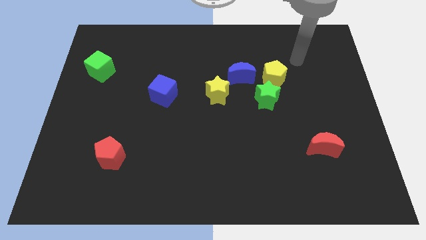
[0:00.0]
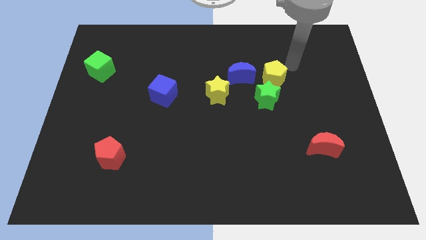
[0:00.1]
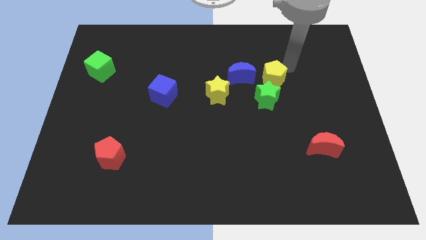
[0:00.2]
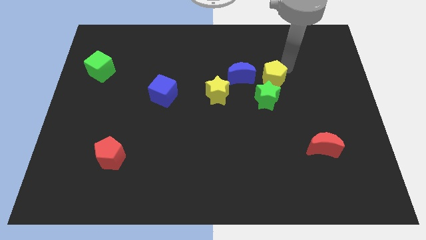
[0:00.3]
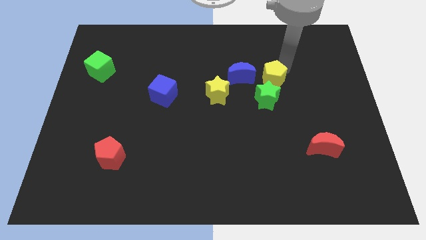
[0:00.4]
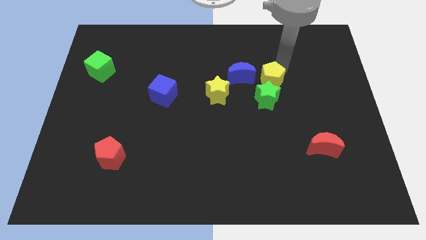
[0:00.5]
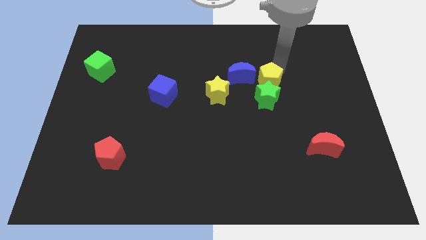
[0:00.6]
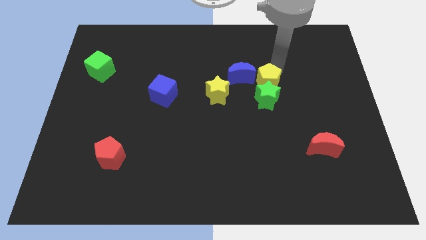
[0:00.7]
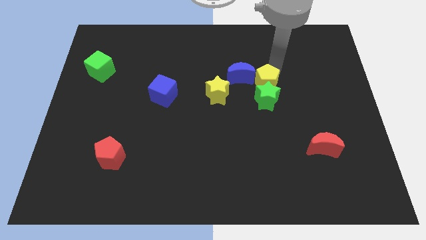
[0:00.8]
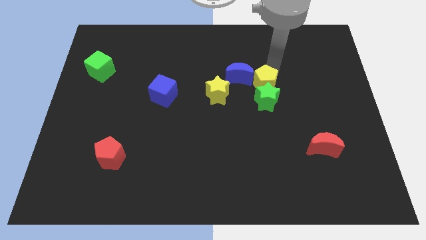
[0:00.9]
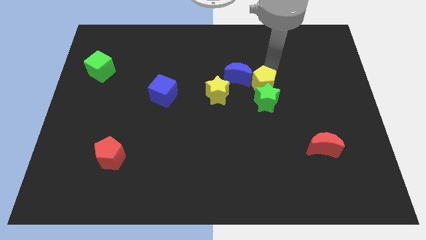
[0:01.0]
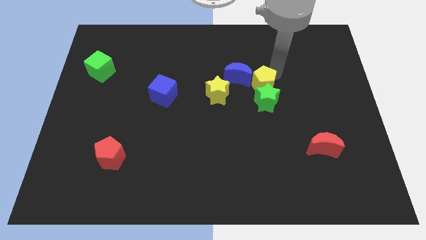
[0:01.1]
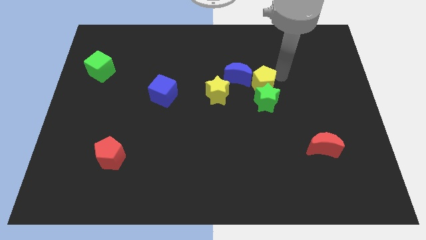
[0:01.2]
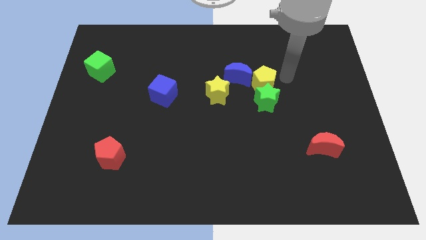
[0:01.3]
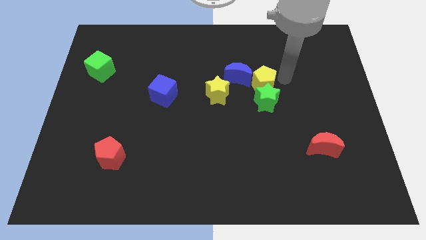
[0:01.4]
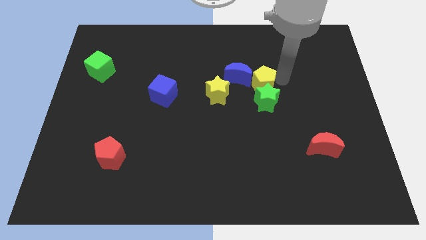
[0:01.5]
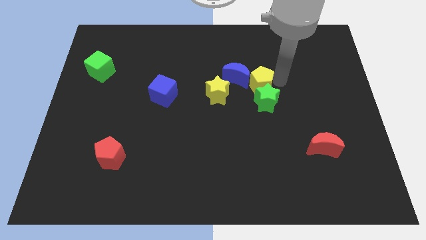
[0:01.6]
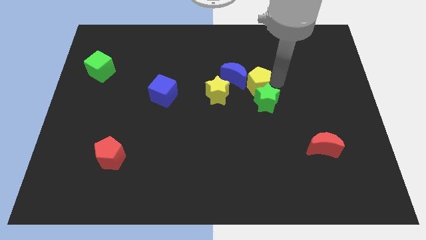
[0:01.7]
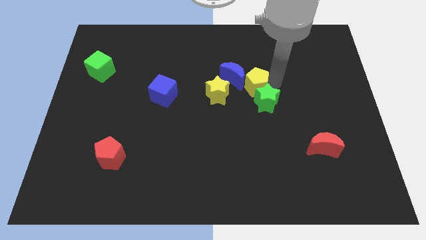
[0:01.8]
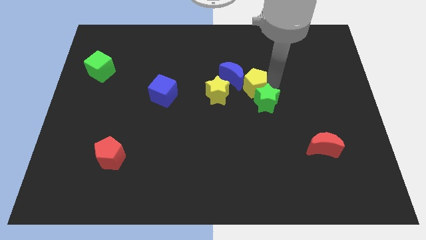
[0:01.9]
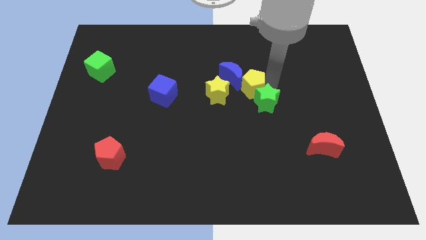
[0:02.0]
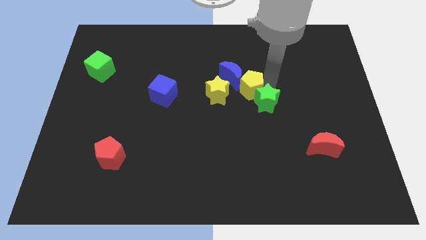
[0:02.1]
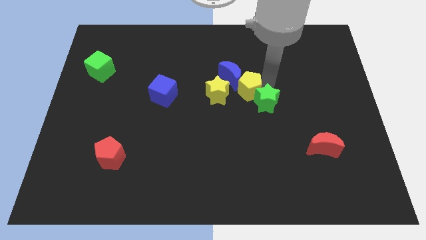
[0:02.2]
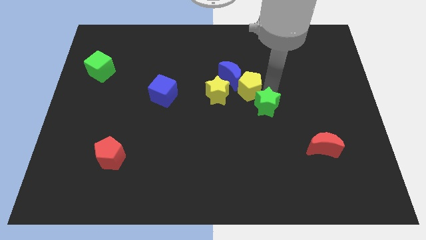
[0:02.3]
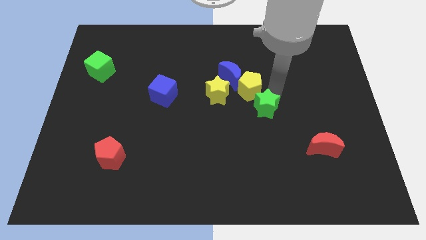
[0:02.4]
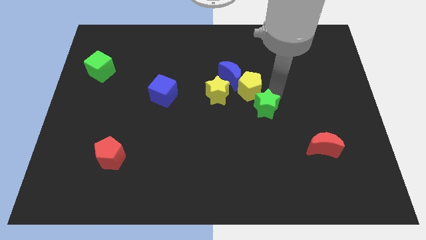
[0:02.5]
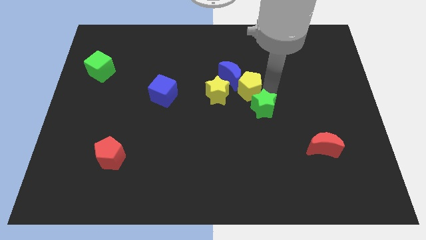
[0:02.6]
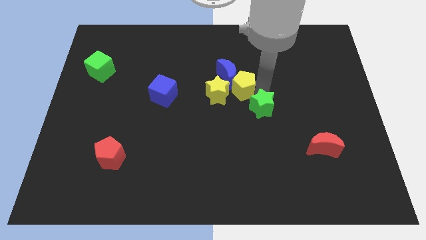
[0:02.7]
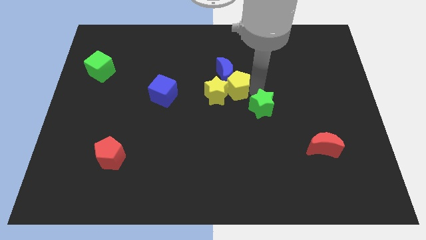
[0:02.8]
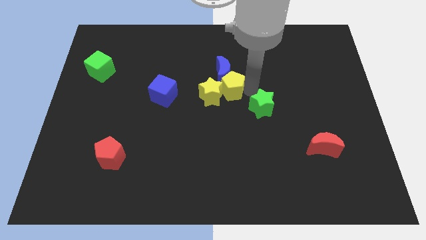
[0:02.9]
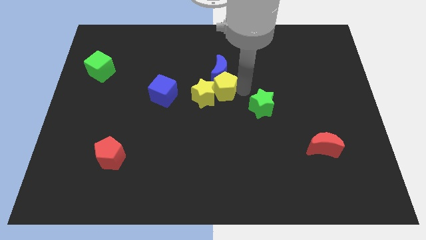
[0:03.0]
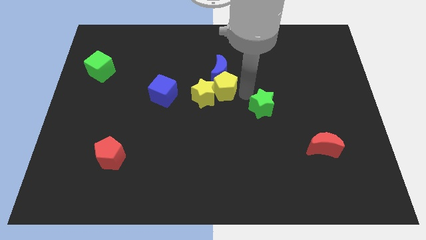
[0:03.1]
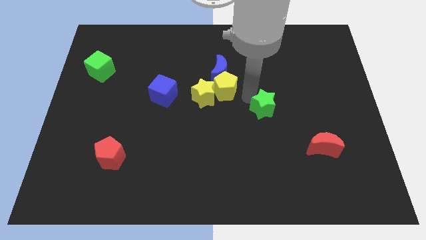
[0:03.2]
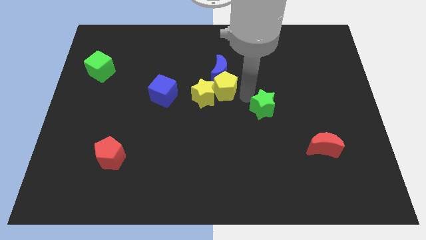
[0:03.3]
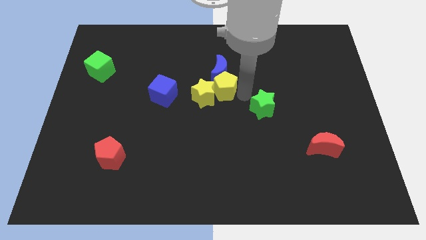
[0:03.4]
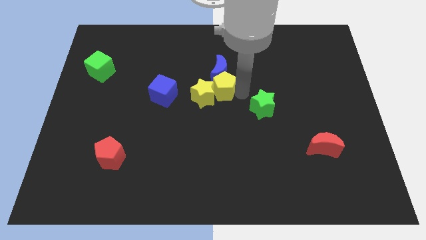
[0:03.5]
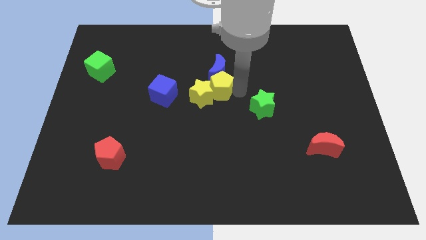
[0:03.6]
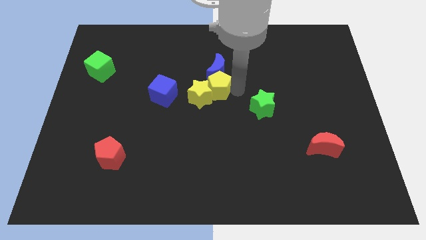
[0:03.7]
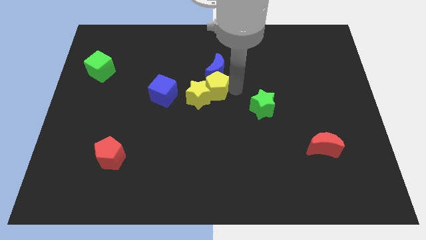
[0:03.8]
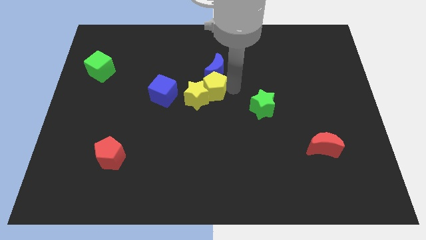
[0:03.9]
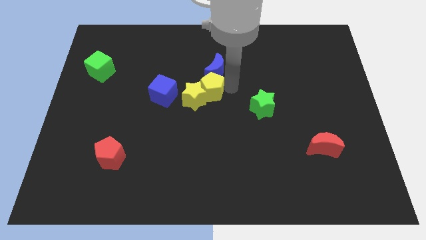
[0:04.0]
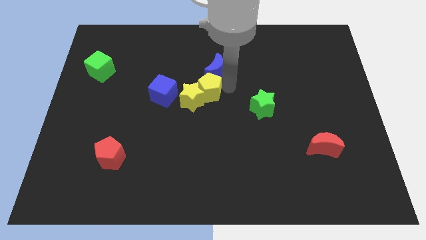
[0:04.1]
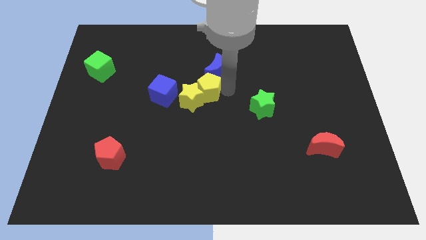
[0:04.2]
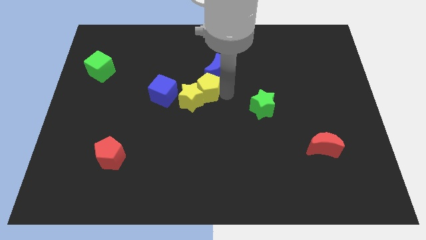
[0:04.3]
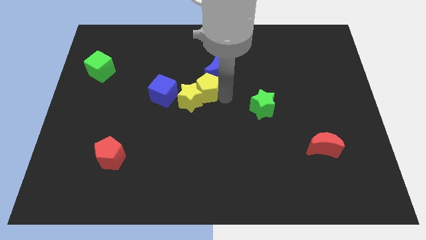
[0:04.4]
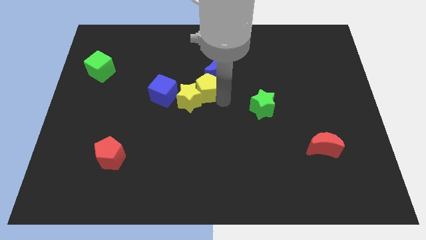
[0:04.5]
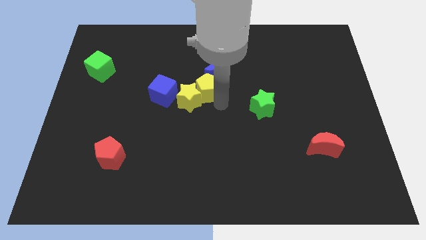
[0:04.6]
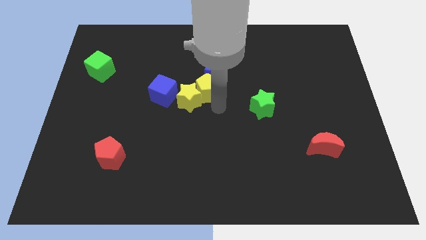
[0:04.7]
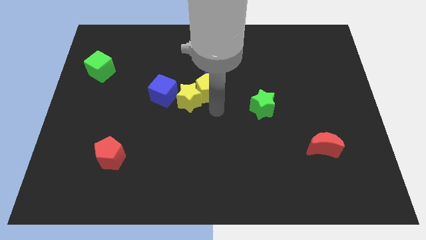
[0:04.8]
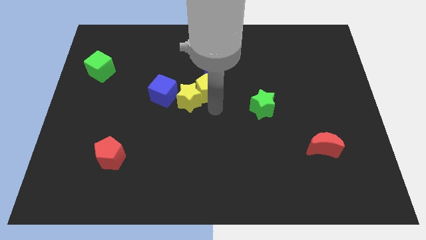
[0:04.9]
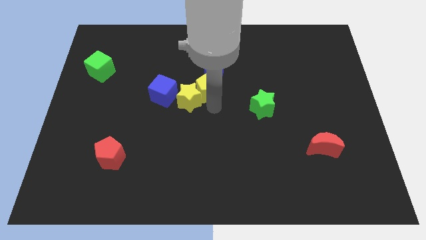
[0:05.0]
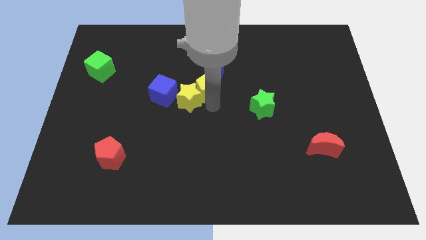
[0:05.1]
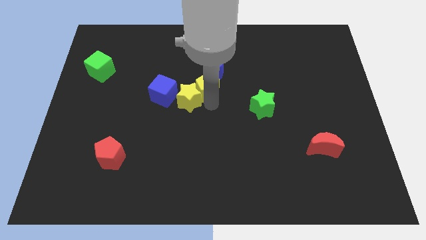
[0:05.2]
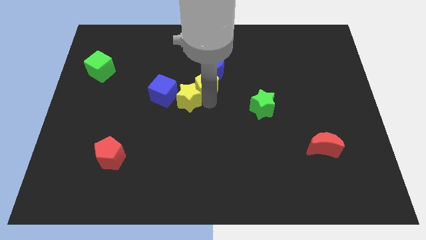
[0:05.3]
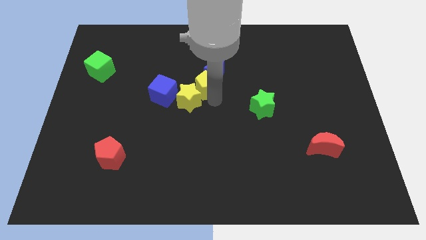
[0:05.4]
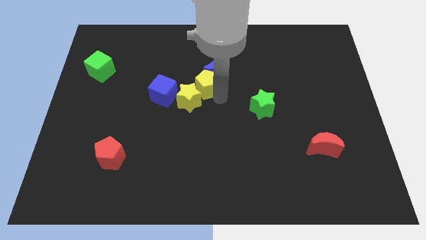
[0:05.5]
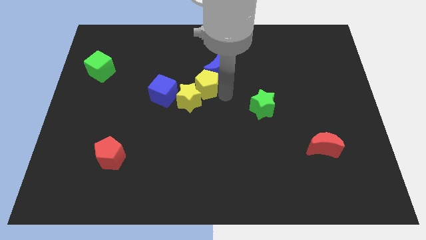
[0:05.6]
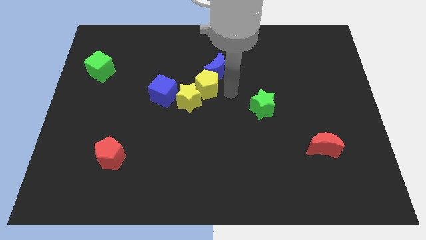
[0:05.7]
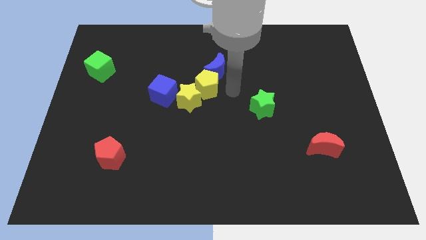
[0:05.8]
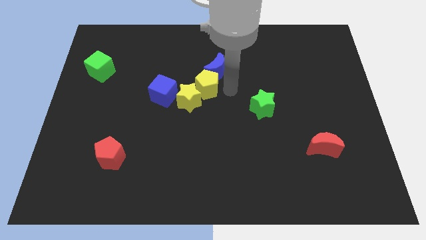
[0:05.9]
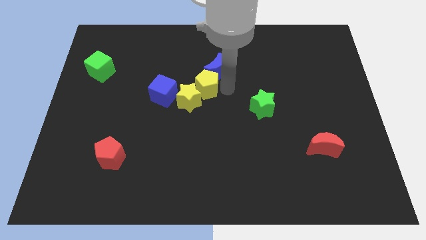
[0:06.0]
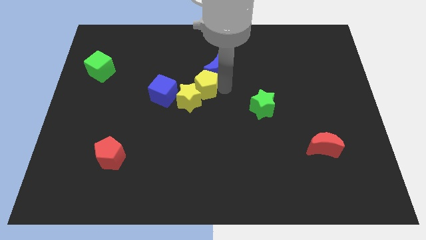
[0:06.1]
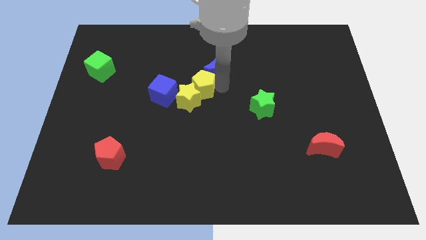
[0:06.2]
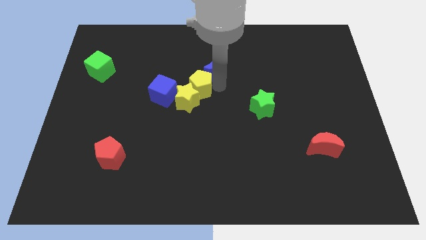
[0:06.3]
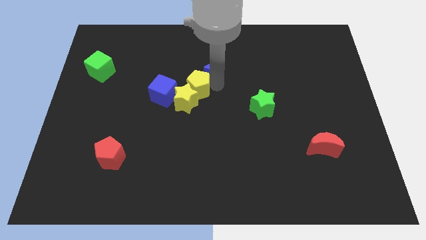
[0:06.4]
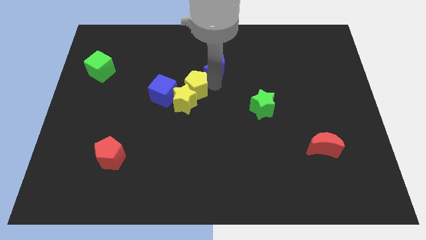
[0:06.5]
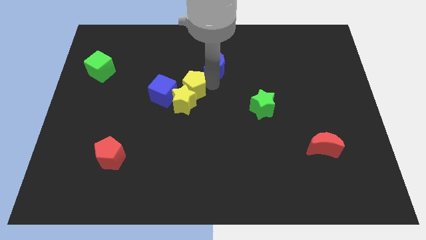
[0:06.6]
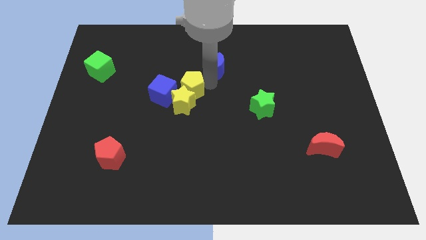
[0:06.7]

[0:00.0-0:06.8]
push the yellow pentagon left

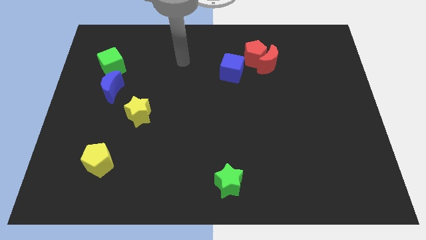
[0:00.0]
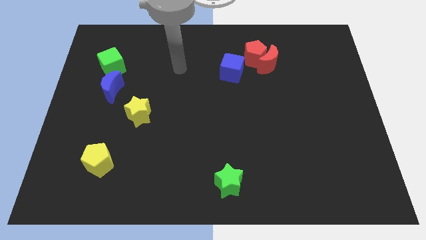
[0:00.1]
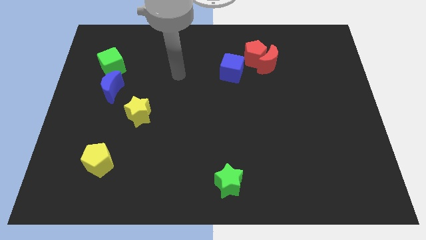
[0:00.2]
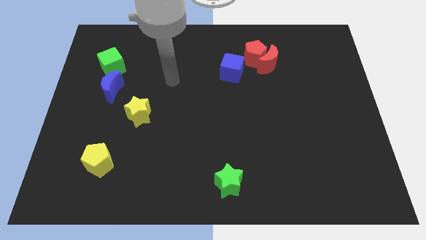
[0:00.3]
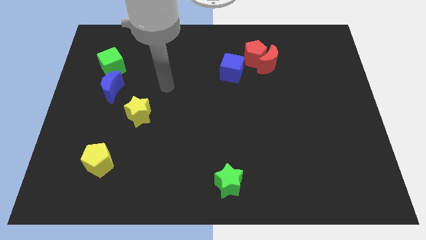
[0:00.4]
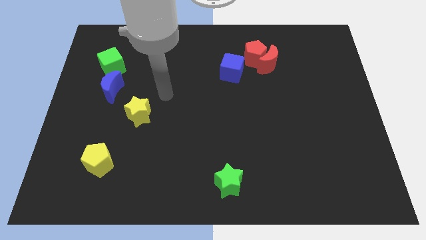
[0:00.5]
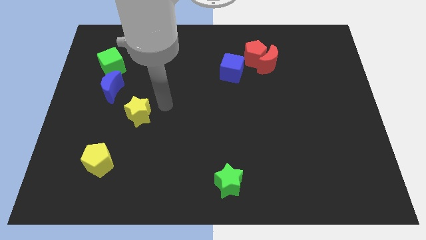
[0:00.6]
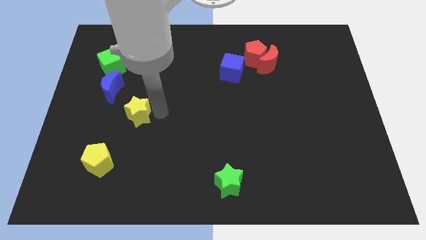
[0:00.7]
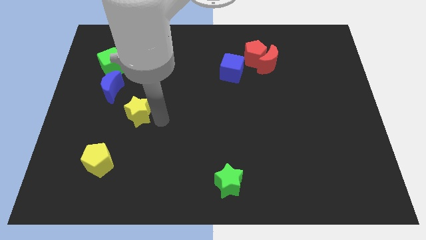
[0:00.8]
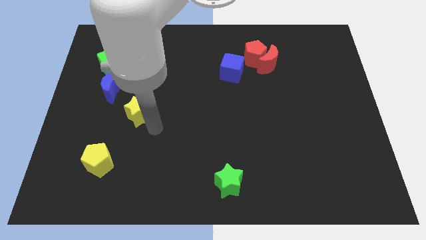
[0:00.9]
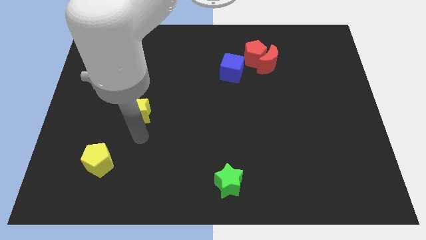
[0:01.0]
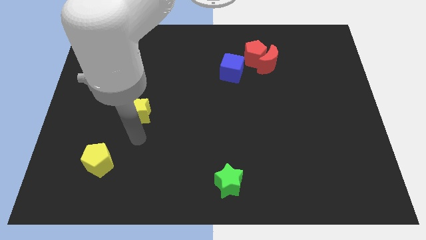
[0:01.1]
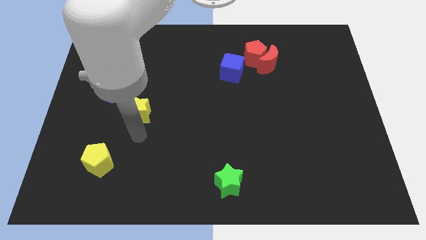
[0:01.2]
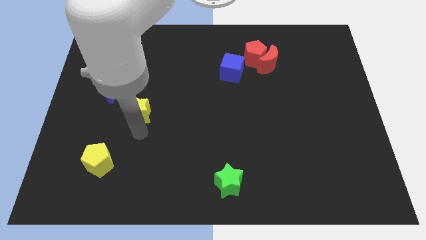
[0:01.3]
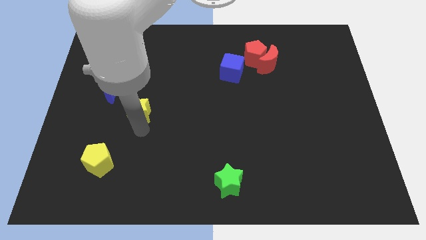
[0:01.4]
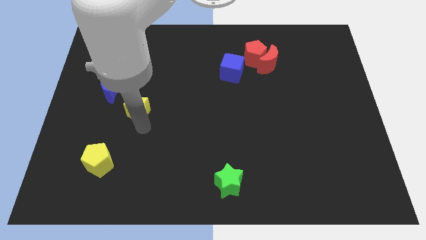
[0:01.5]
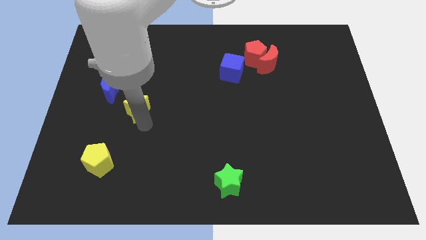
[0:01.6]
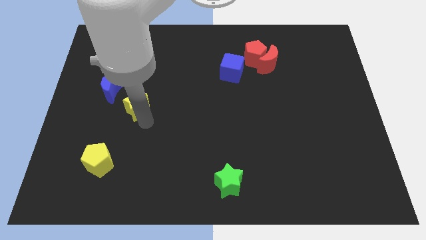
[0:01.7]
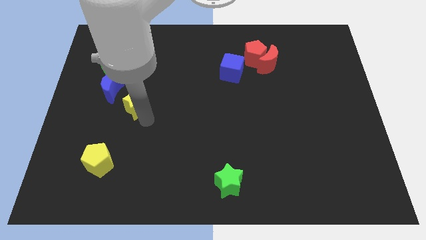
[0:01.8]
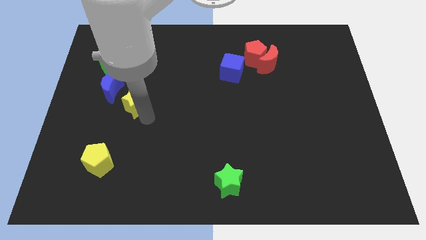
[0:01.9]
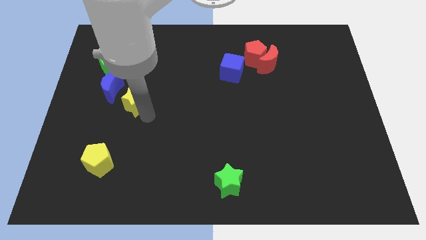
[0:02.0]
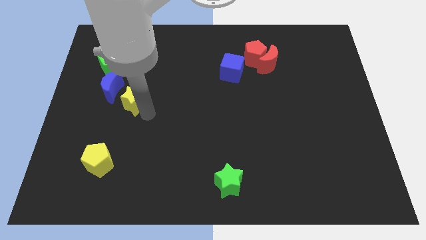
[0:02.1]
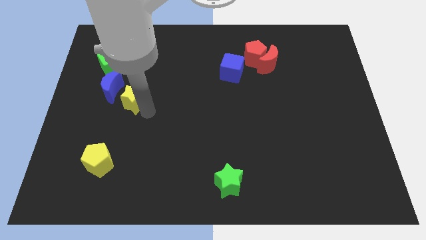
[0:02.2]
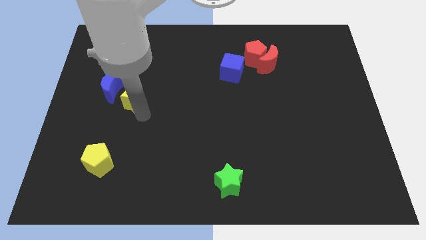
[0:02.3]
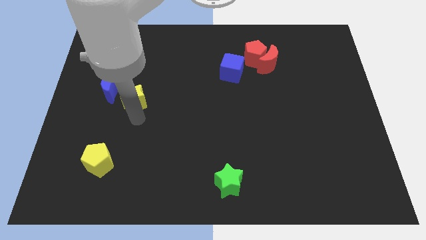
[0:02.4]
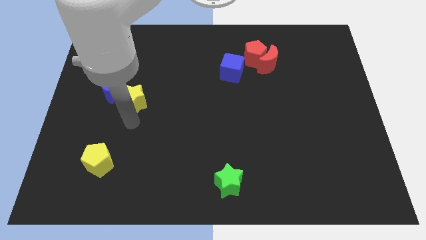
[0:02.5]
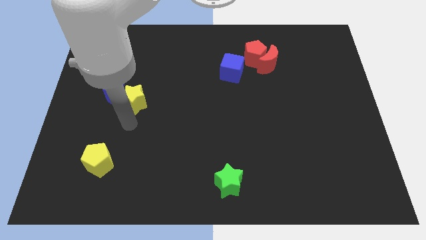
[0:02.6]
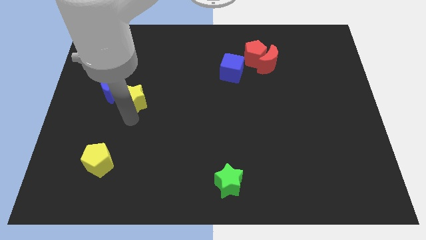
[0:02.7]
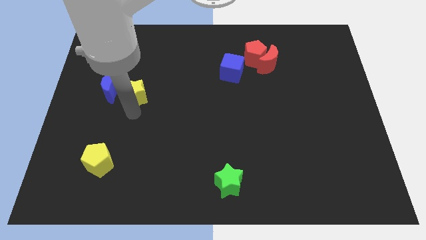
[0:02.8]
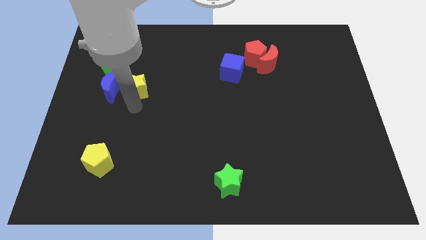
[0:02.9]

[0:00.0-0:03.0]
slide the yellow star somewhat up
